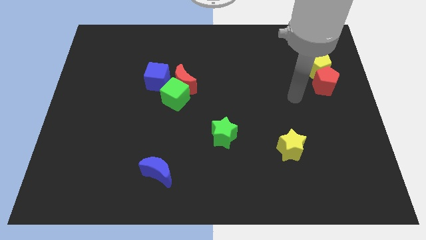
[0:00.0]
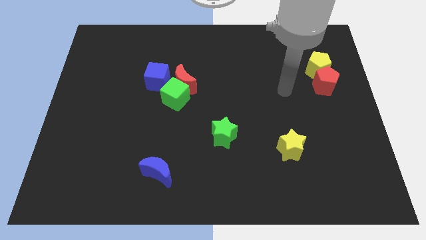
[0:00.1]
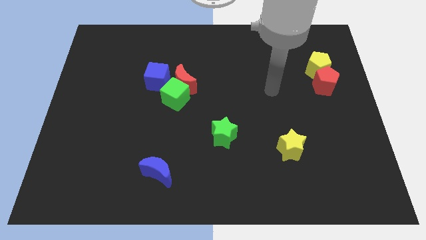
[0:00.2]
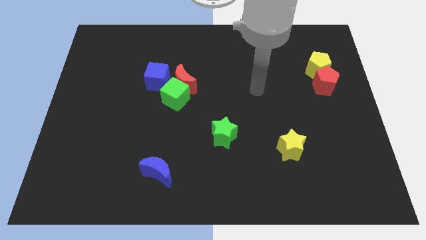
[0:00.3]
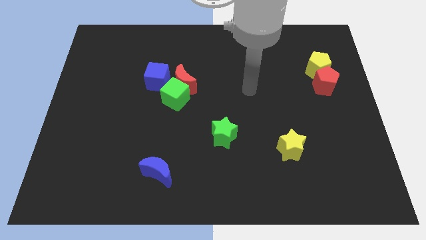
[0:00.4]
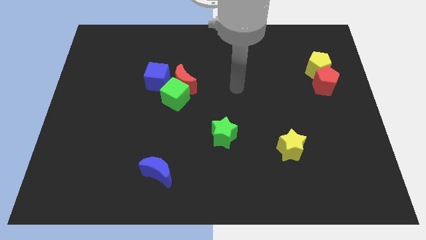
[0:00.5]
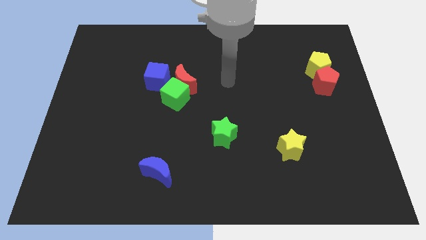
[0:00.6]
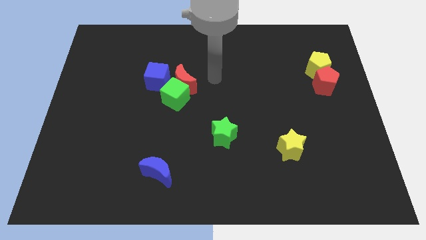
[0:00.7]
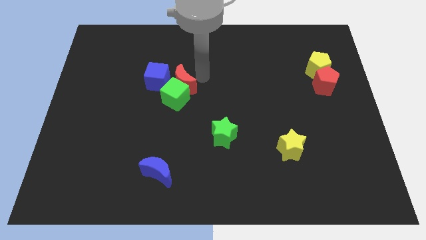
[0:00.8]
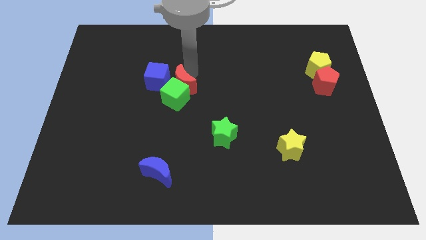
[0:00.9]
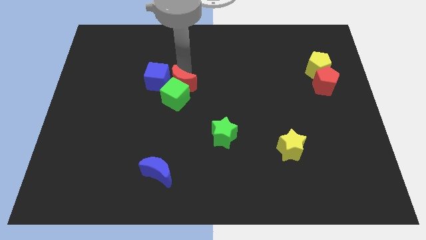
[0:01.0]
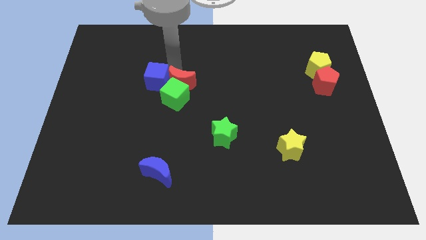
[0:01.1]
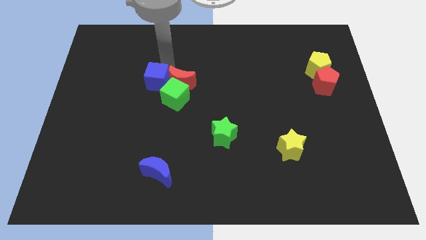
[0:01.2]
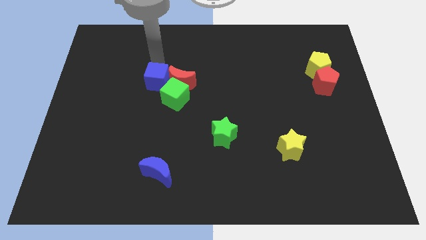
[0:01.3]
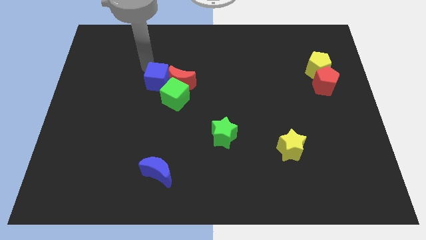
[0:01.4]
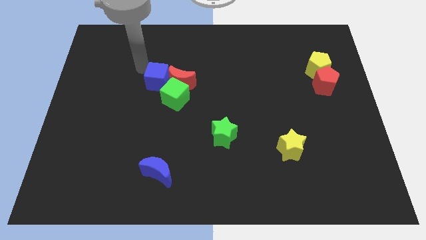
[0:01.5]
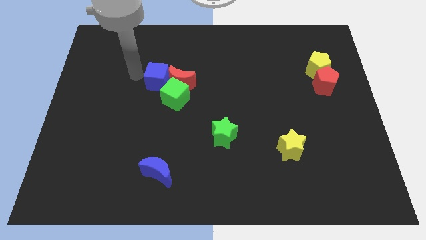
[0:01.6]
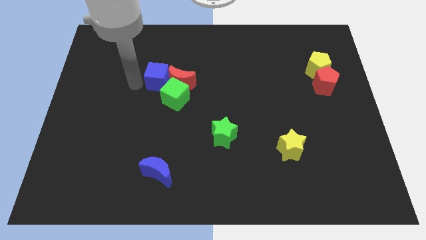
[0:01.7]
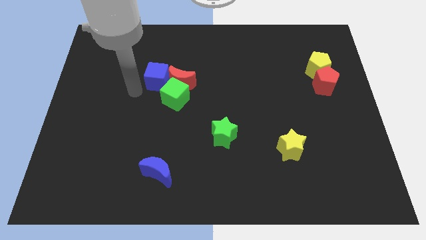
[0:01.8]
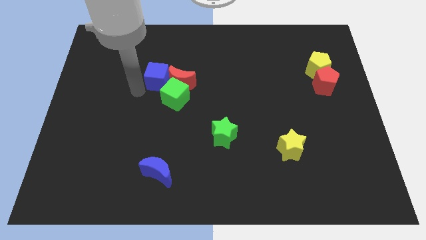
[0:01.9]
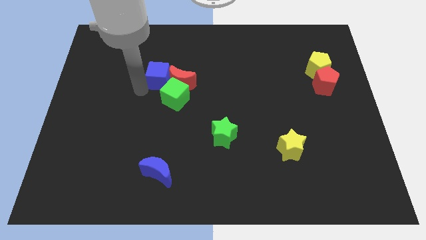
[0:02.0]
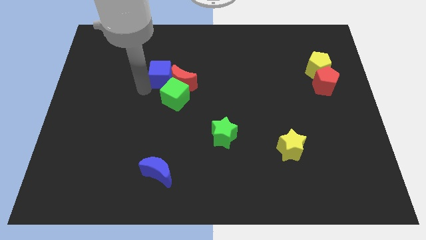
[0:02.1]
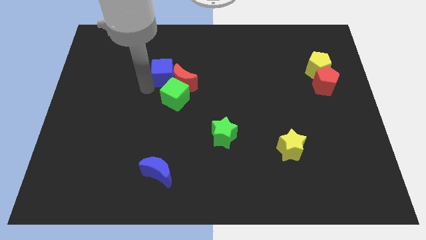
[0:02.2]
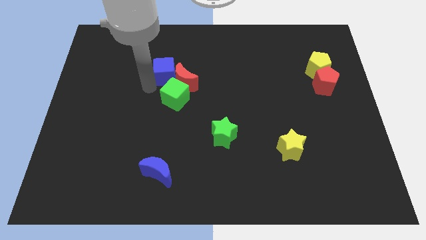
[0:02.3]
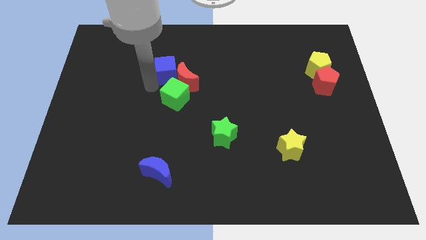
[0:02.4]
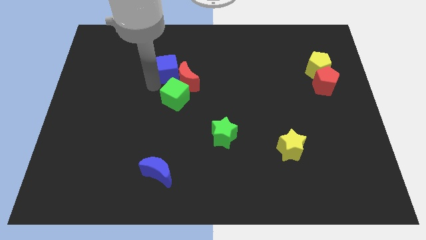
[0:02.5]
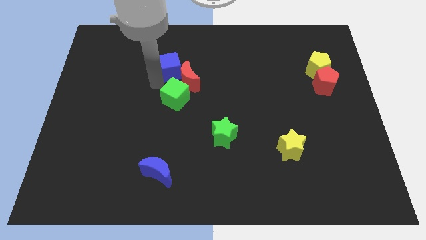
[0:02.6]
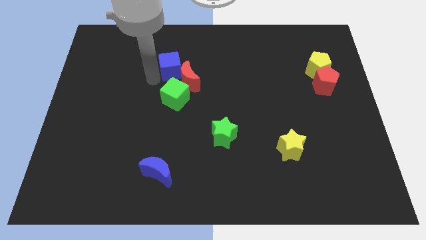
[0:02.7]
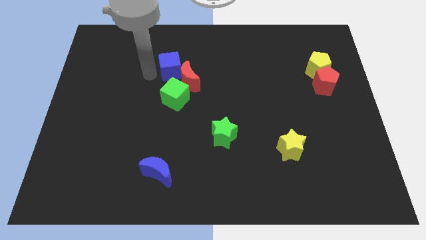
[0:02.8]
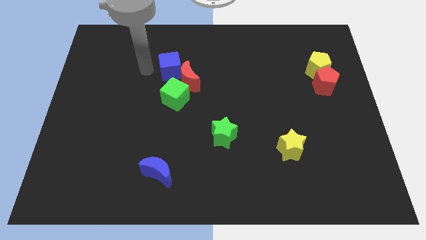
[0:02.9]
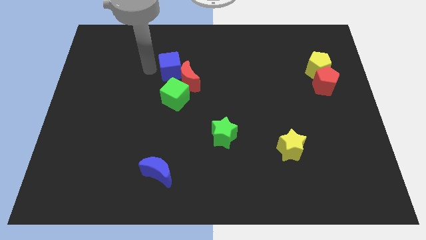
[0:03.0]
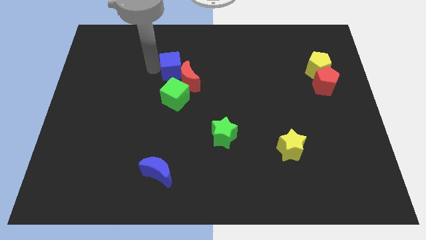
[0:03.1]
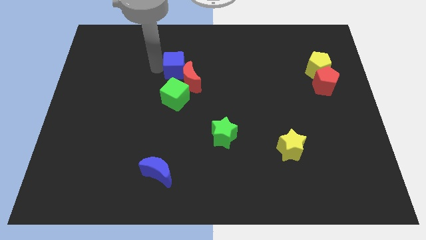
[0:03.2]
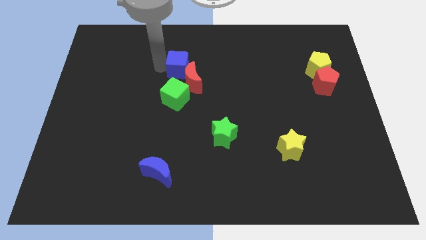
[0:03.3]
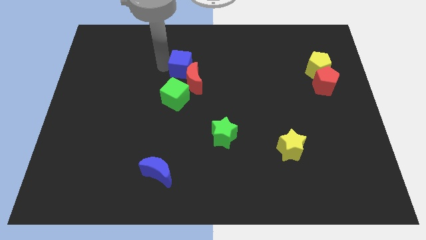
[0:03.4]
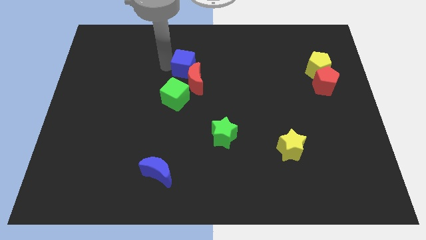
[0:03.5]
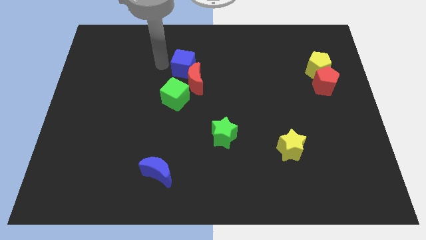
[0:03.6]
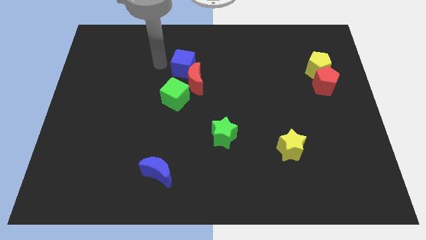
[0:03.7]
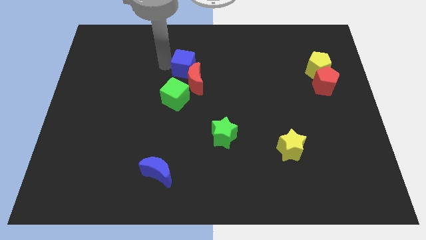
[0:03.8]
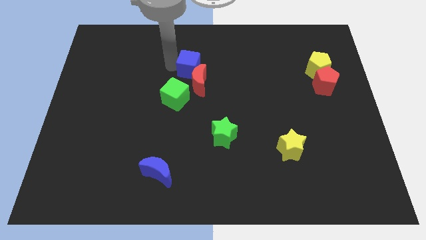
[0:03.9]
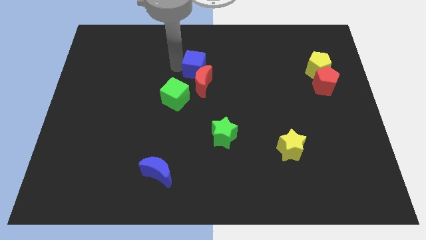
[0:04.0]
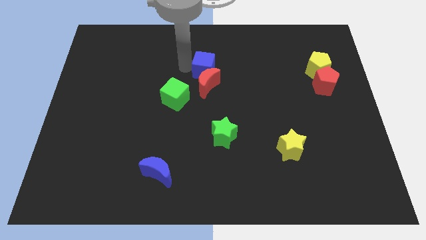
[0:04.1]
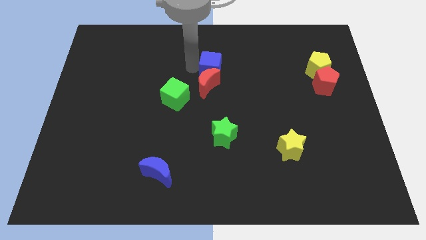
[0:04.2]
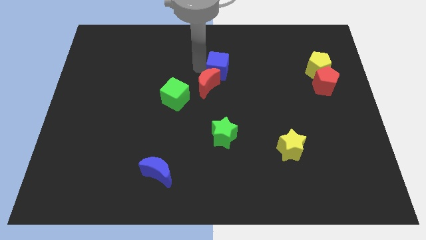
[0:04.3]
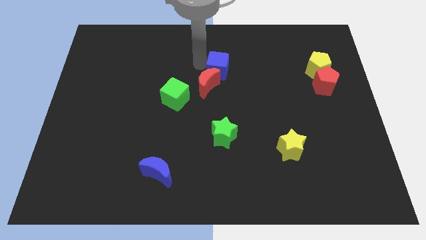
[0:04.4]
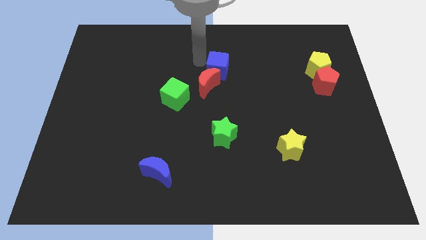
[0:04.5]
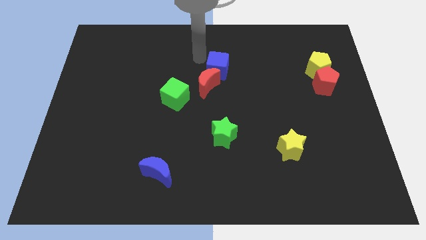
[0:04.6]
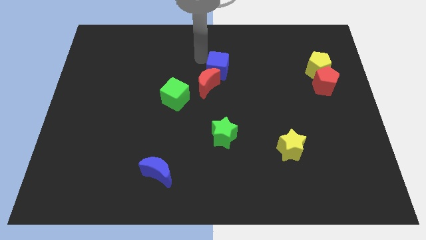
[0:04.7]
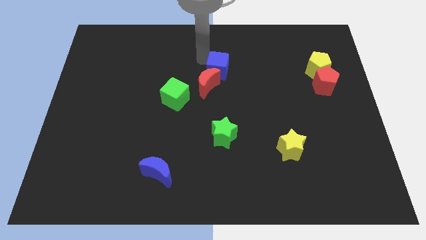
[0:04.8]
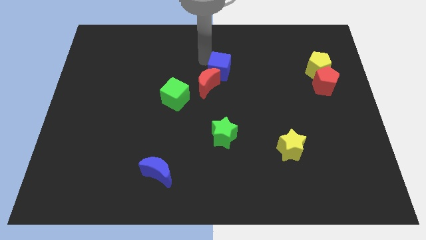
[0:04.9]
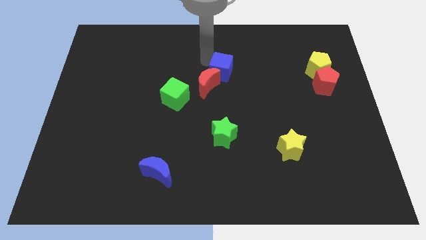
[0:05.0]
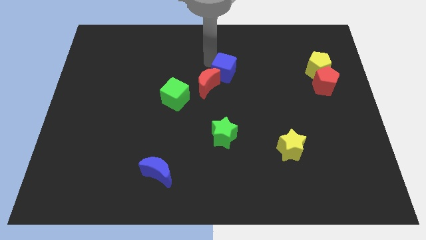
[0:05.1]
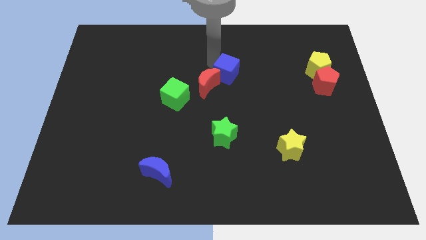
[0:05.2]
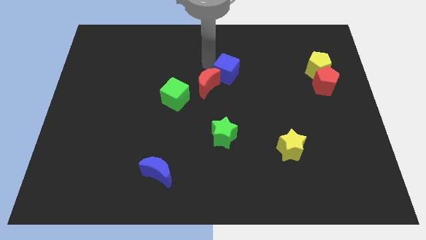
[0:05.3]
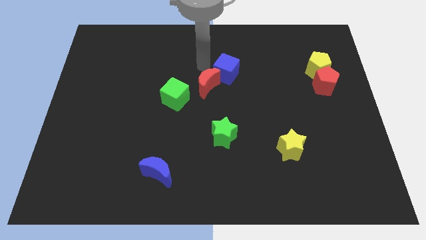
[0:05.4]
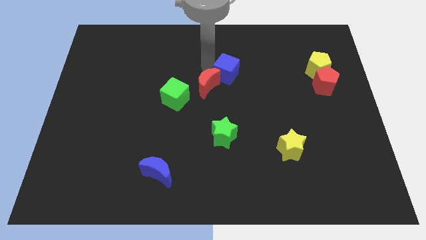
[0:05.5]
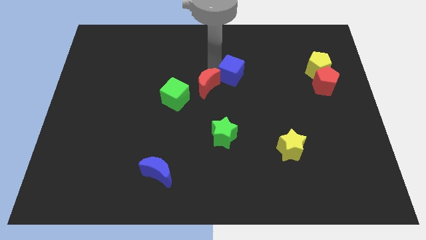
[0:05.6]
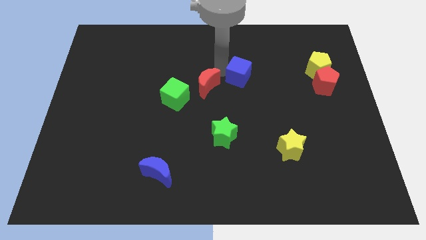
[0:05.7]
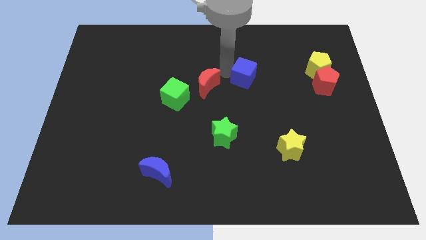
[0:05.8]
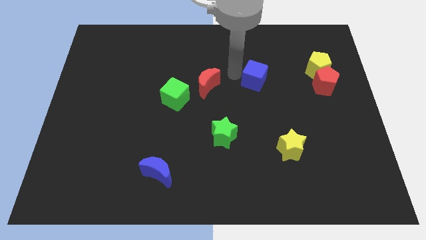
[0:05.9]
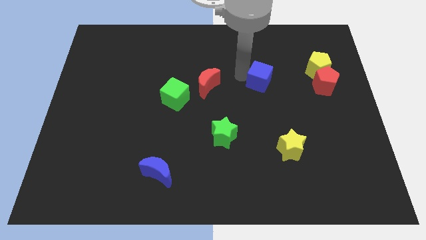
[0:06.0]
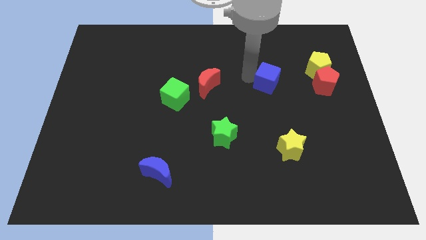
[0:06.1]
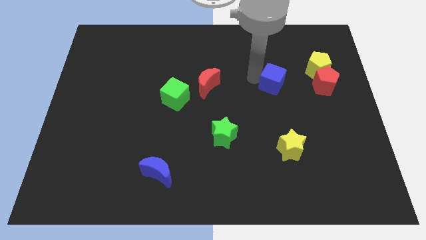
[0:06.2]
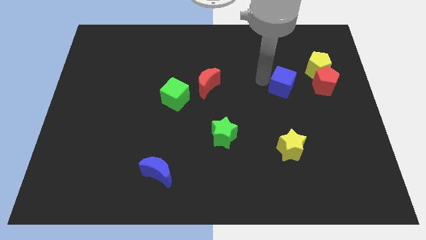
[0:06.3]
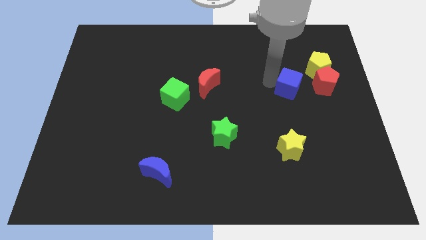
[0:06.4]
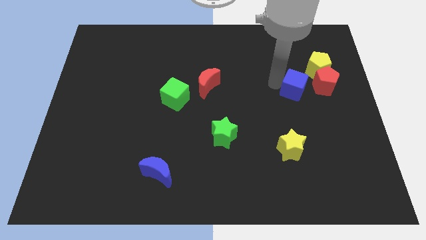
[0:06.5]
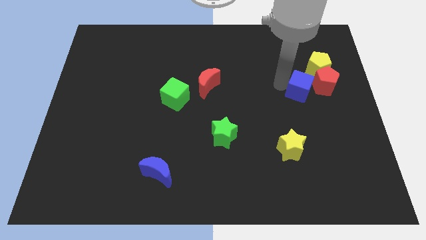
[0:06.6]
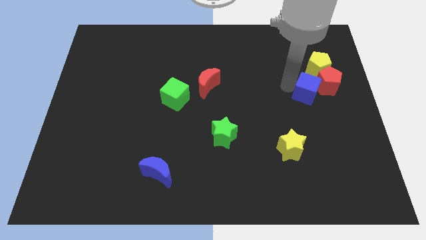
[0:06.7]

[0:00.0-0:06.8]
push the blue cube below the yellow pentagon

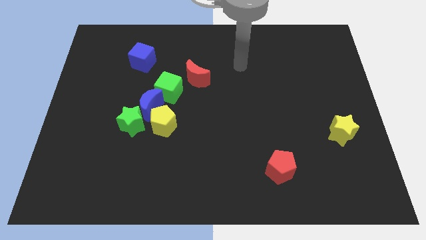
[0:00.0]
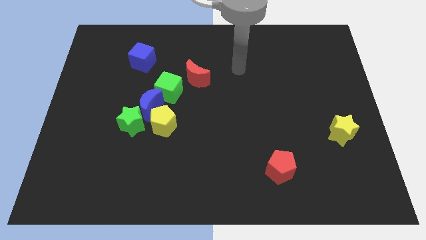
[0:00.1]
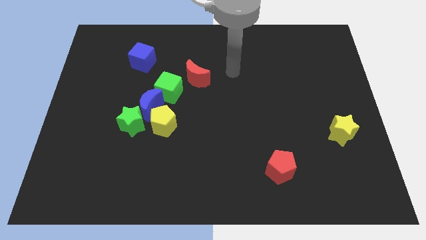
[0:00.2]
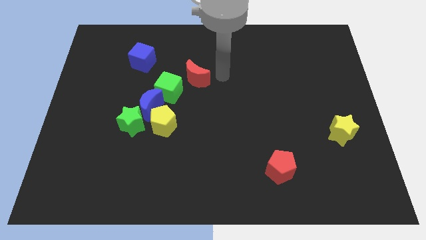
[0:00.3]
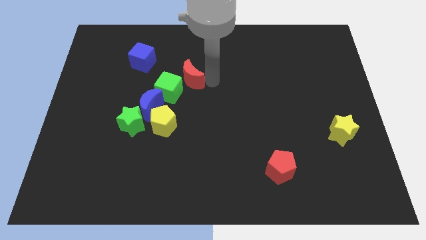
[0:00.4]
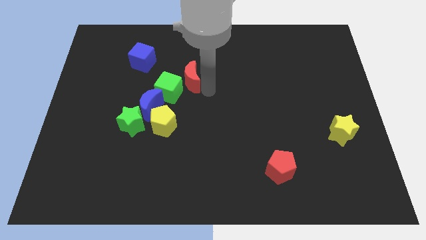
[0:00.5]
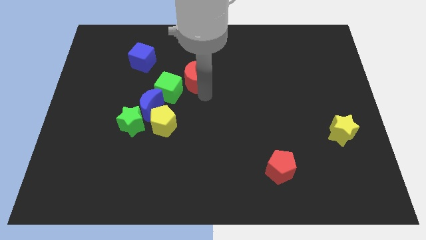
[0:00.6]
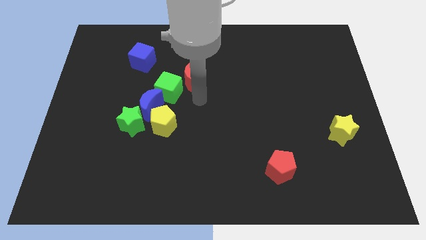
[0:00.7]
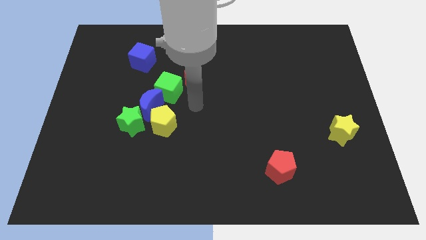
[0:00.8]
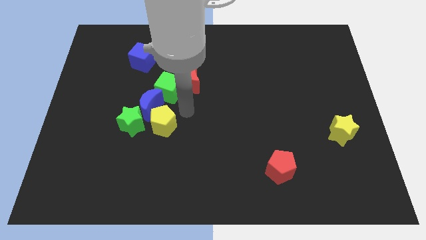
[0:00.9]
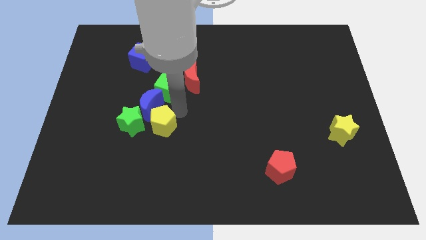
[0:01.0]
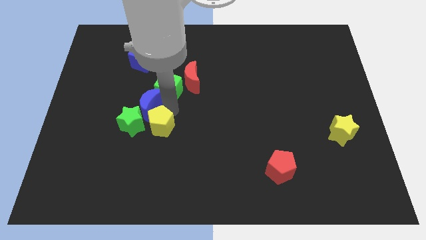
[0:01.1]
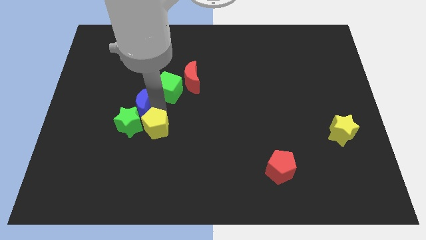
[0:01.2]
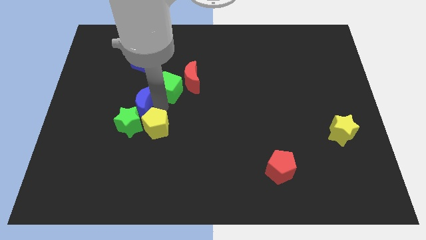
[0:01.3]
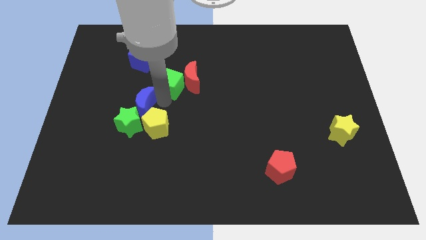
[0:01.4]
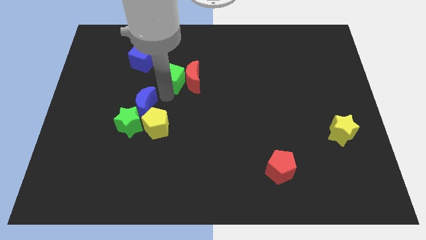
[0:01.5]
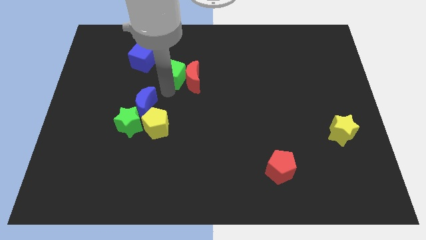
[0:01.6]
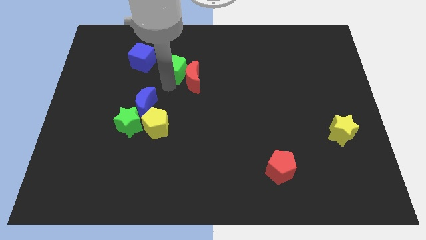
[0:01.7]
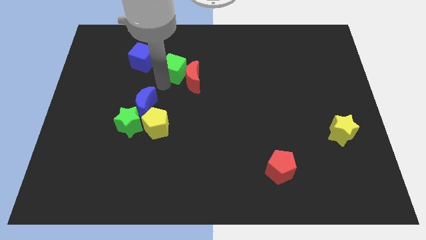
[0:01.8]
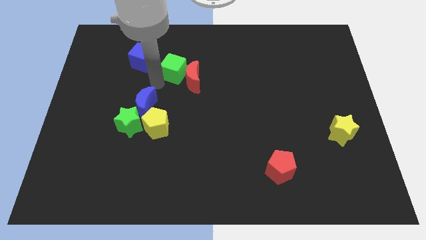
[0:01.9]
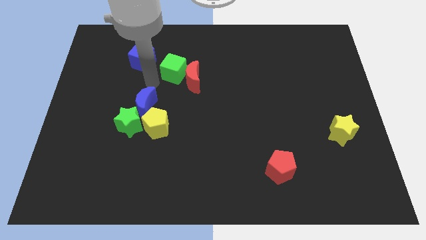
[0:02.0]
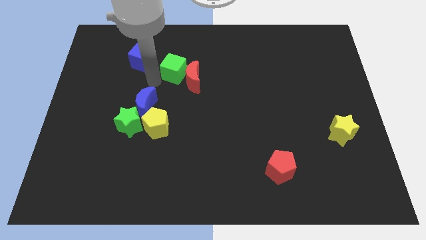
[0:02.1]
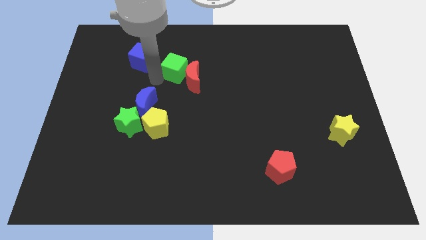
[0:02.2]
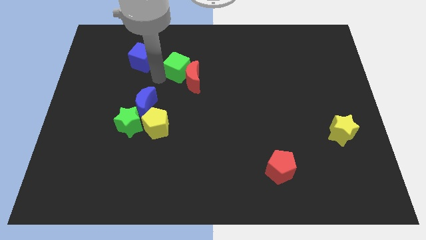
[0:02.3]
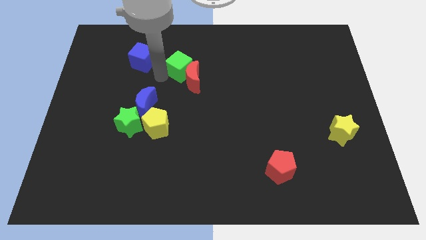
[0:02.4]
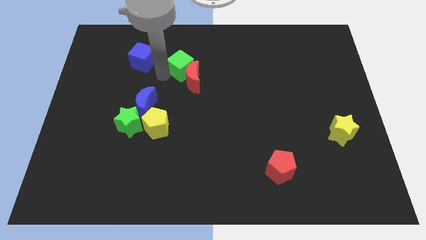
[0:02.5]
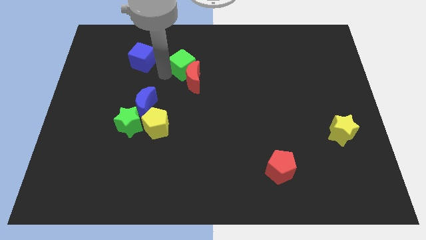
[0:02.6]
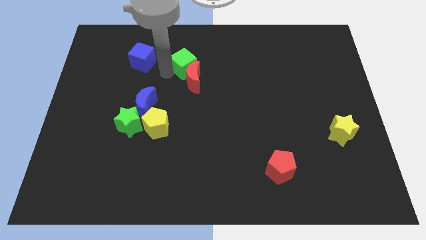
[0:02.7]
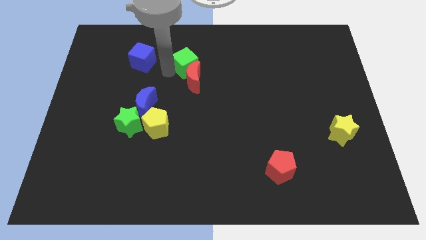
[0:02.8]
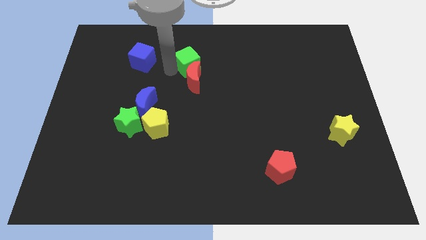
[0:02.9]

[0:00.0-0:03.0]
put the green cube to the top right of the red moon
